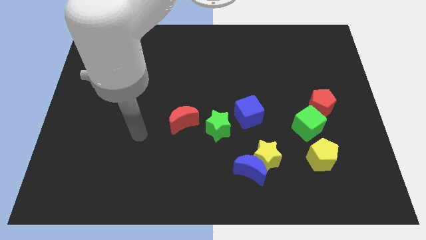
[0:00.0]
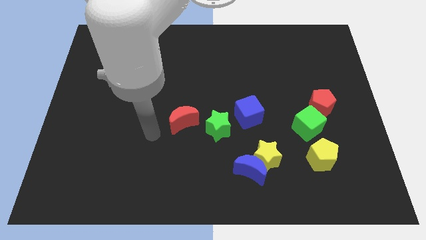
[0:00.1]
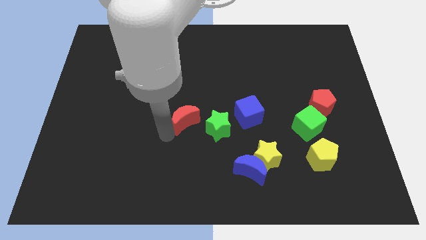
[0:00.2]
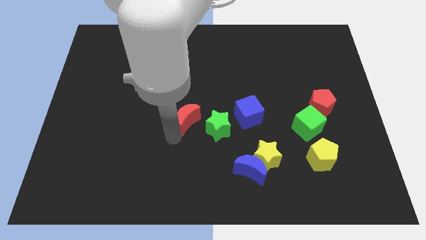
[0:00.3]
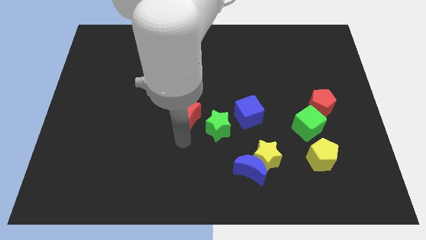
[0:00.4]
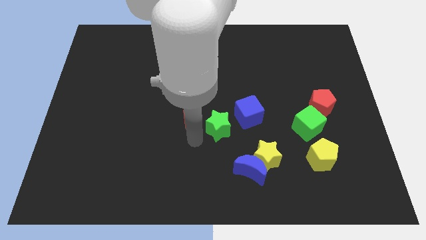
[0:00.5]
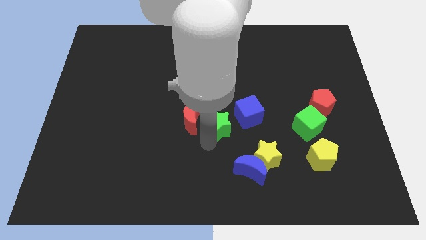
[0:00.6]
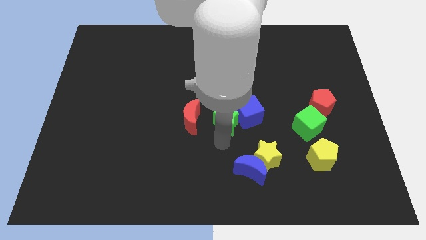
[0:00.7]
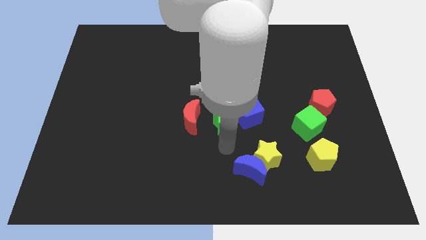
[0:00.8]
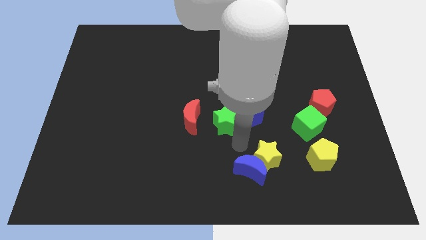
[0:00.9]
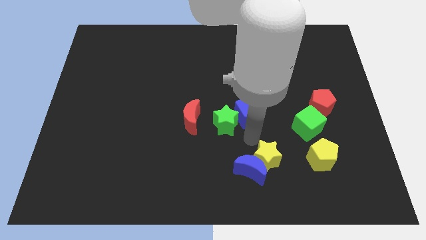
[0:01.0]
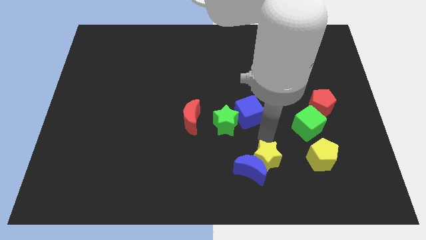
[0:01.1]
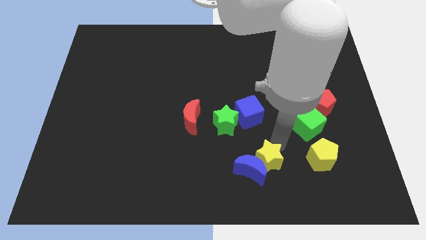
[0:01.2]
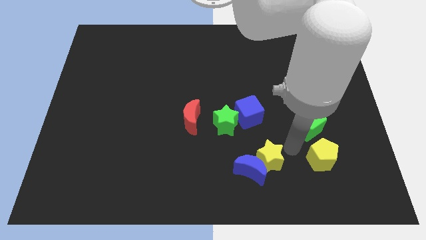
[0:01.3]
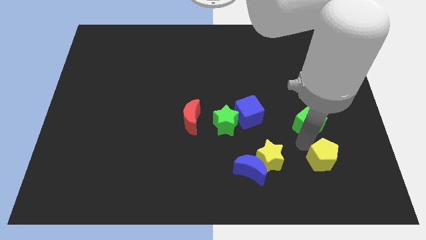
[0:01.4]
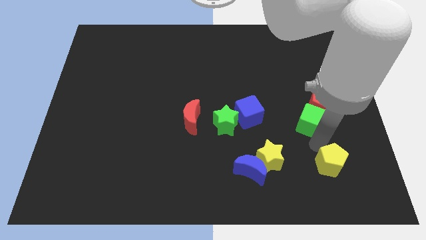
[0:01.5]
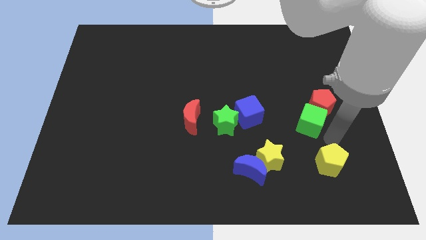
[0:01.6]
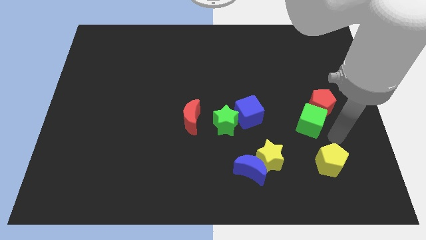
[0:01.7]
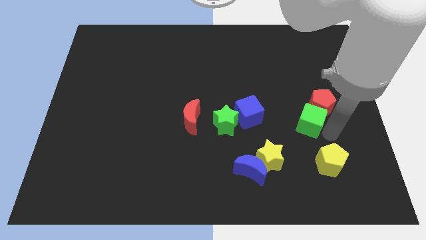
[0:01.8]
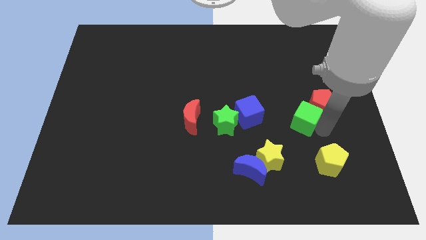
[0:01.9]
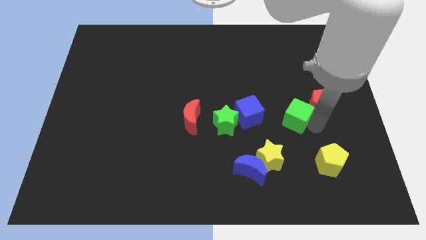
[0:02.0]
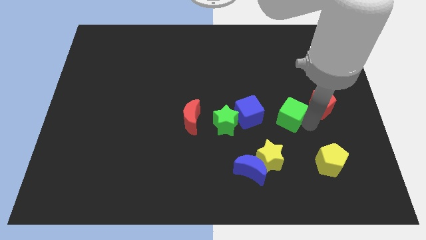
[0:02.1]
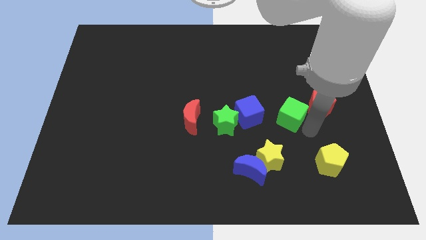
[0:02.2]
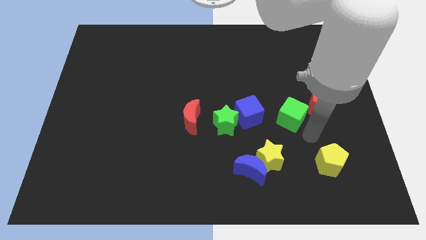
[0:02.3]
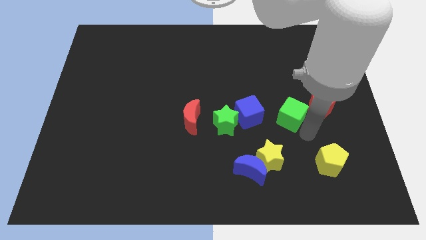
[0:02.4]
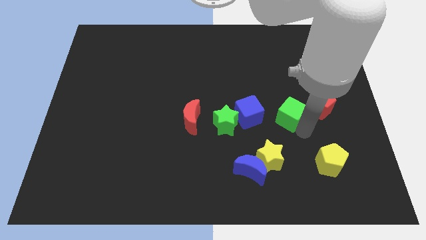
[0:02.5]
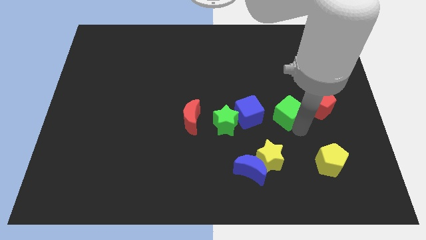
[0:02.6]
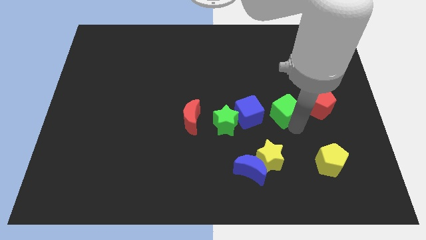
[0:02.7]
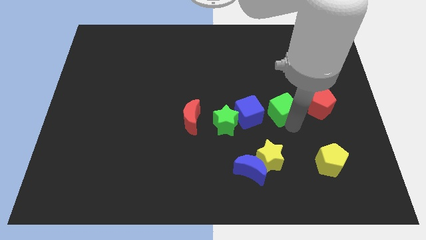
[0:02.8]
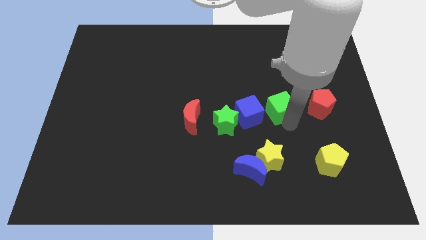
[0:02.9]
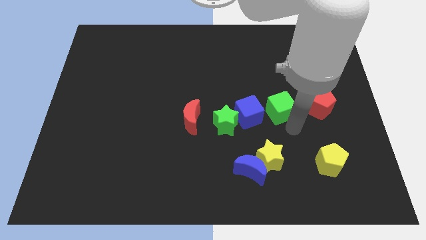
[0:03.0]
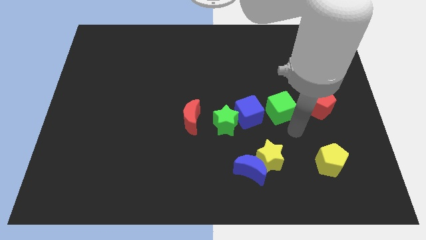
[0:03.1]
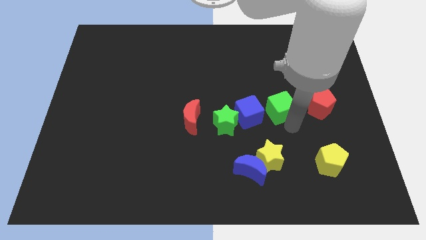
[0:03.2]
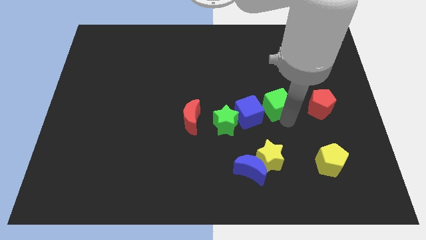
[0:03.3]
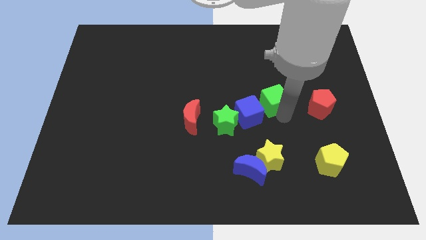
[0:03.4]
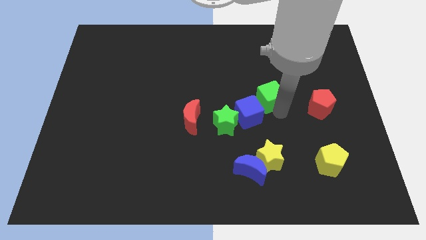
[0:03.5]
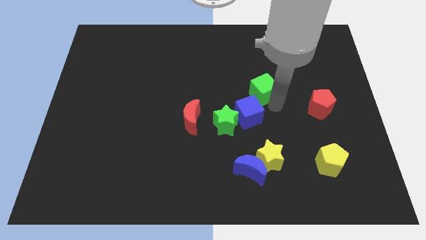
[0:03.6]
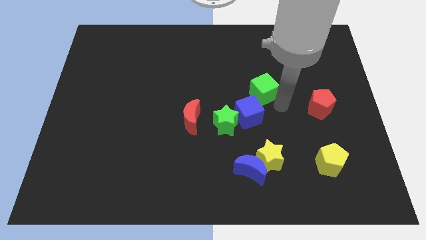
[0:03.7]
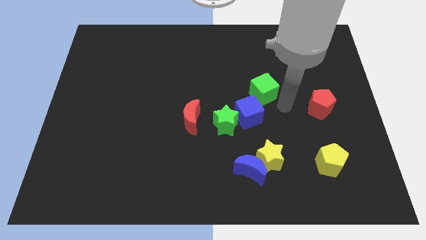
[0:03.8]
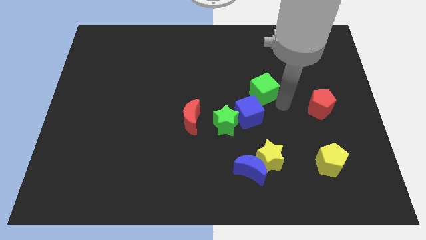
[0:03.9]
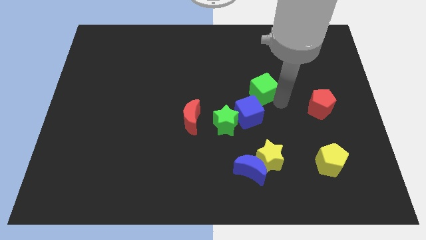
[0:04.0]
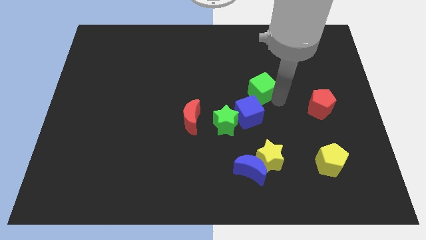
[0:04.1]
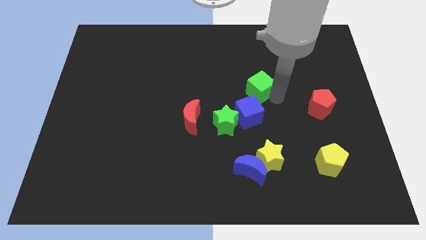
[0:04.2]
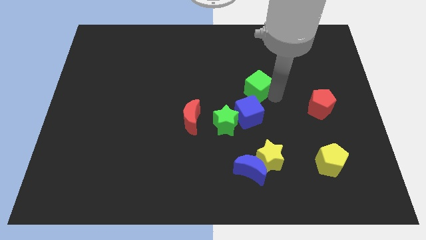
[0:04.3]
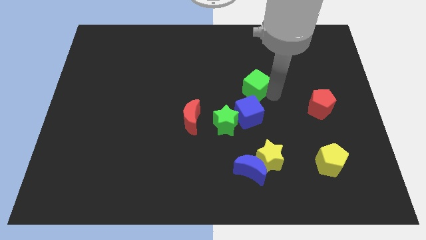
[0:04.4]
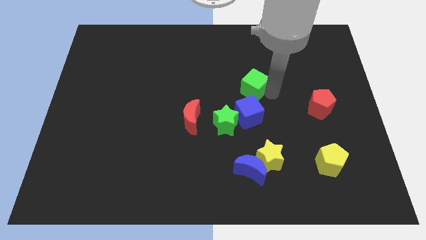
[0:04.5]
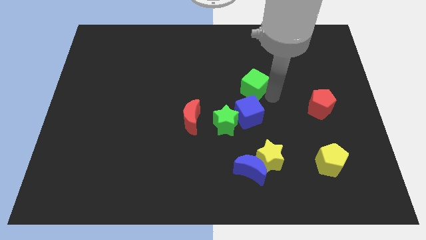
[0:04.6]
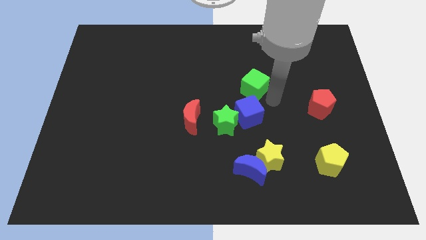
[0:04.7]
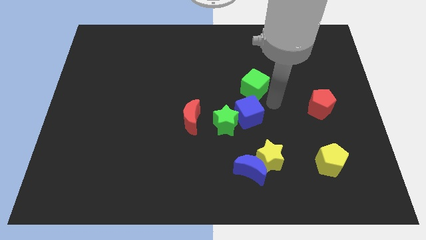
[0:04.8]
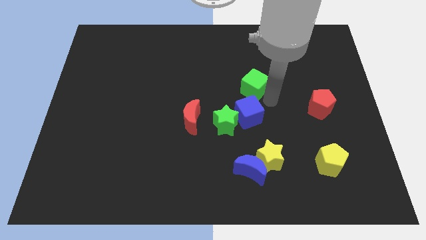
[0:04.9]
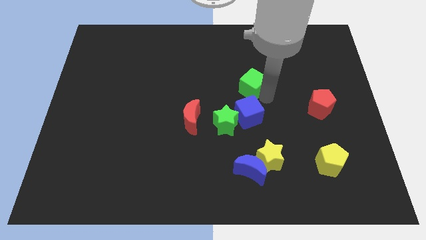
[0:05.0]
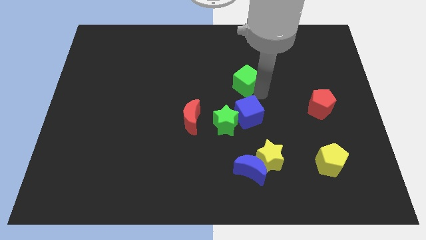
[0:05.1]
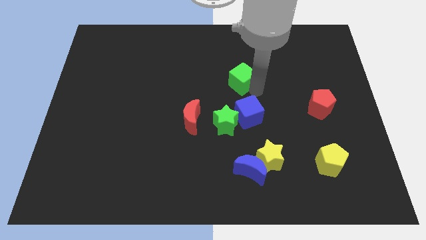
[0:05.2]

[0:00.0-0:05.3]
move the green cube up and left

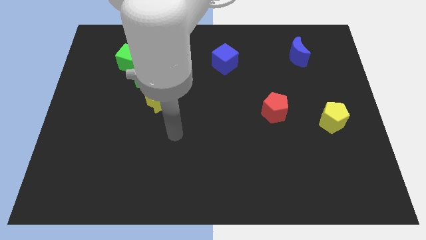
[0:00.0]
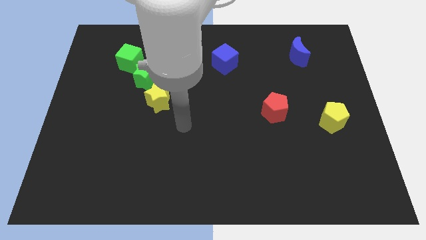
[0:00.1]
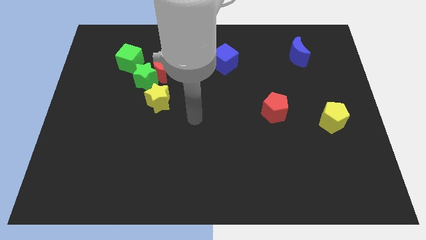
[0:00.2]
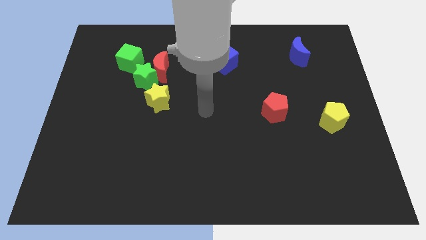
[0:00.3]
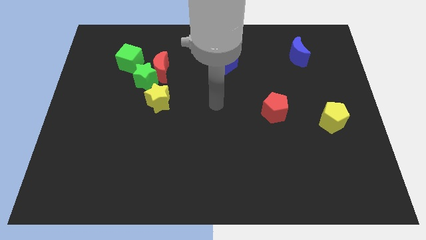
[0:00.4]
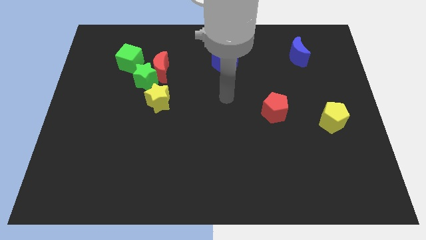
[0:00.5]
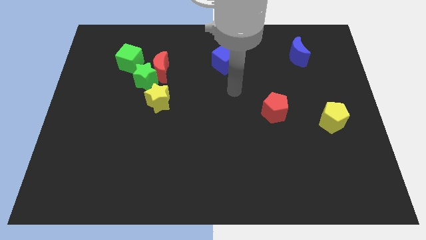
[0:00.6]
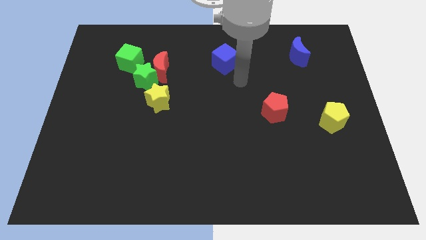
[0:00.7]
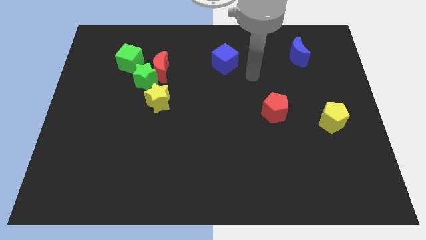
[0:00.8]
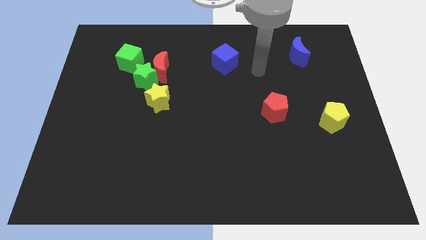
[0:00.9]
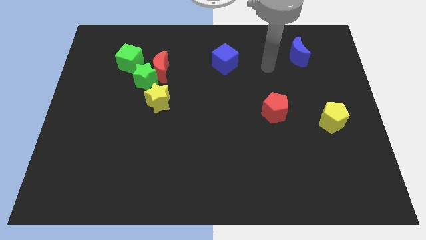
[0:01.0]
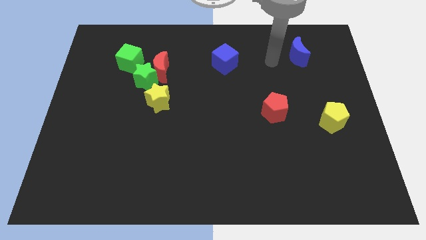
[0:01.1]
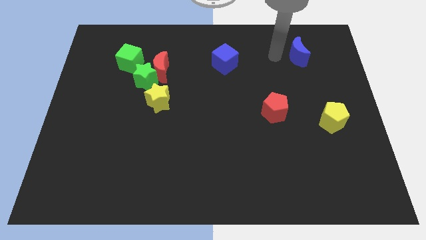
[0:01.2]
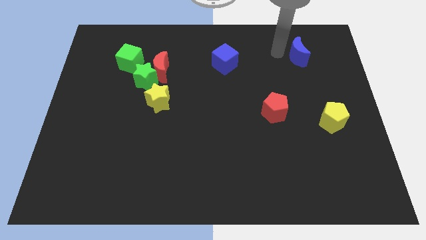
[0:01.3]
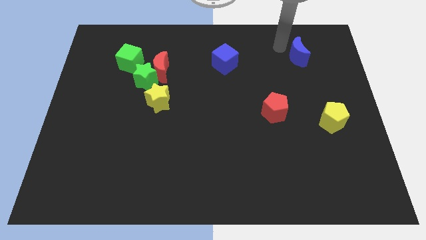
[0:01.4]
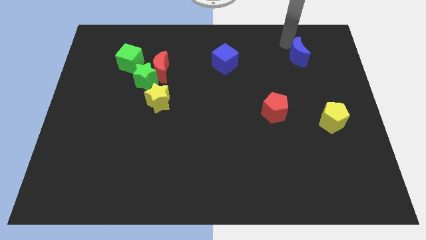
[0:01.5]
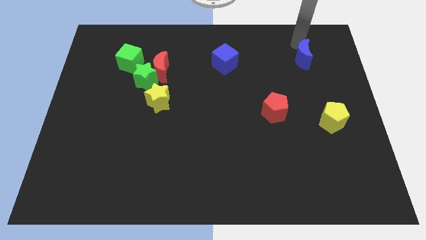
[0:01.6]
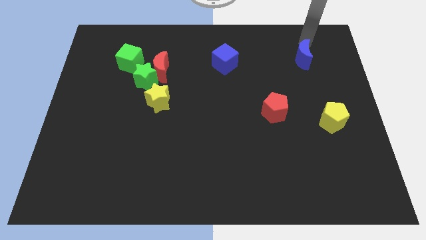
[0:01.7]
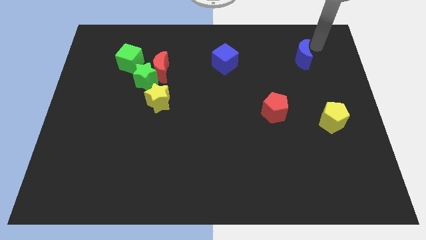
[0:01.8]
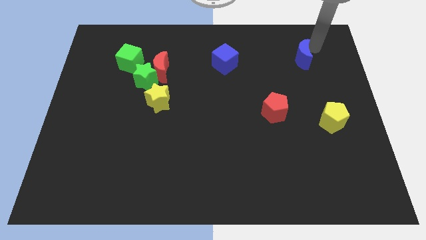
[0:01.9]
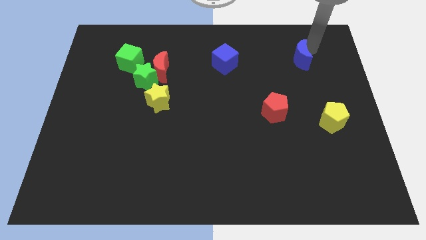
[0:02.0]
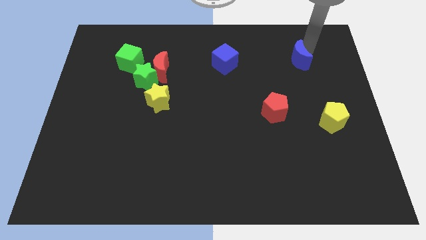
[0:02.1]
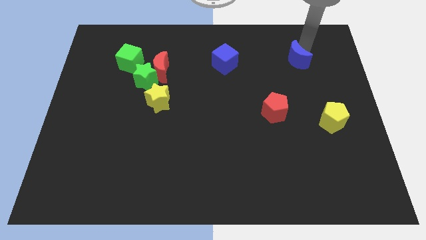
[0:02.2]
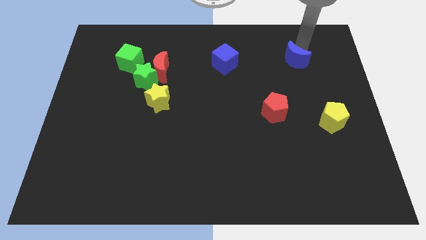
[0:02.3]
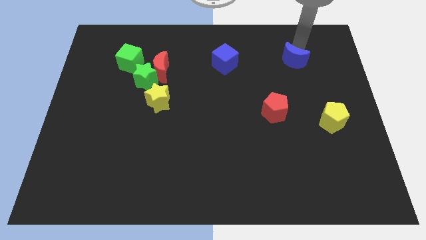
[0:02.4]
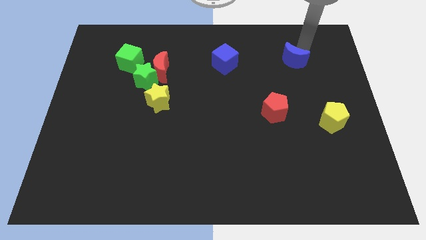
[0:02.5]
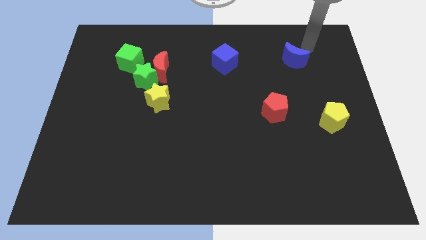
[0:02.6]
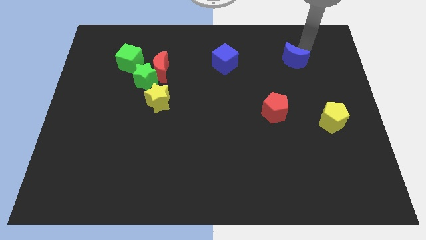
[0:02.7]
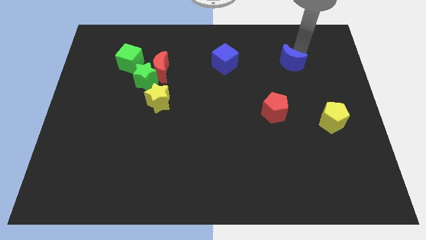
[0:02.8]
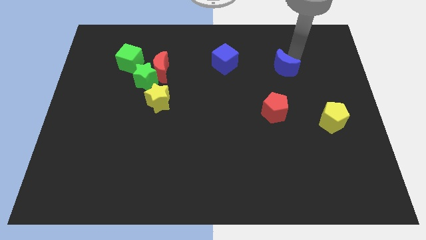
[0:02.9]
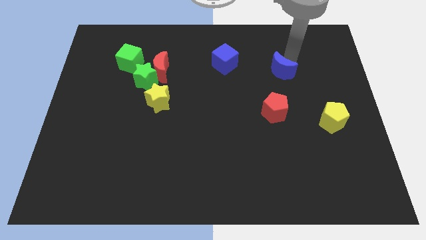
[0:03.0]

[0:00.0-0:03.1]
push the blue moon down and then left a little bit
